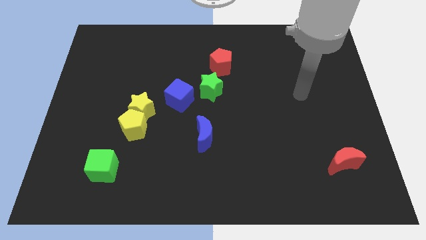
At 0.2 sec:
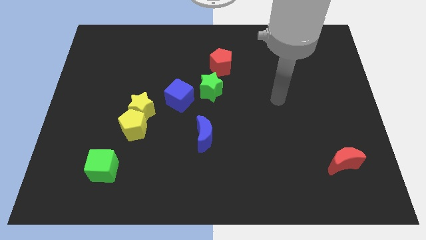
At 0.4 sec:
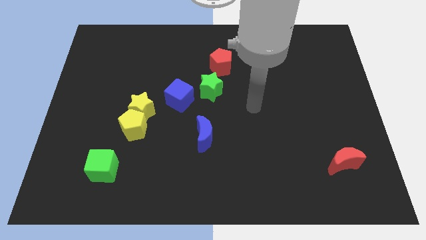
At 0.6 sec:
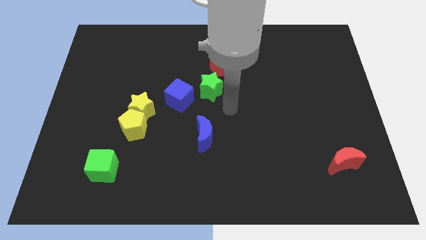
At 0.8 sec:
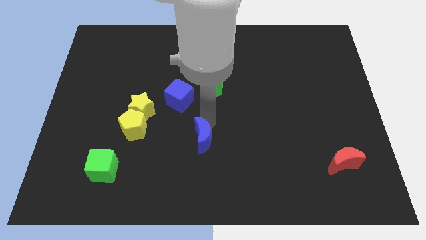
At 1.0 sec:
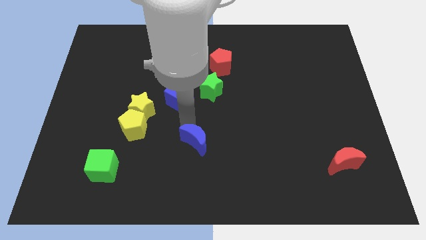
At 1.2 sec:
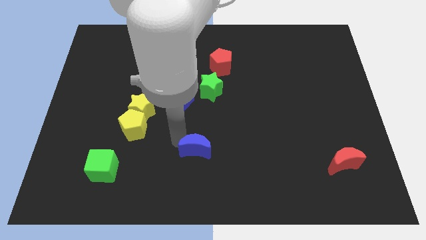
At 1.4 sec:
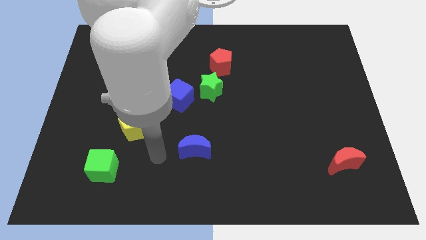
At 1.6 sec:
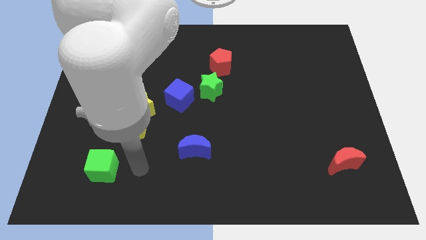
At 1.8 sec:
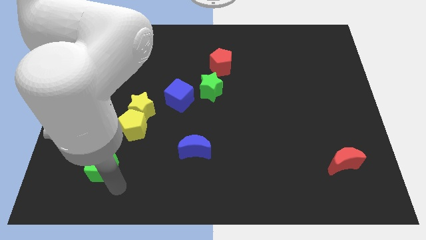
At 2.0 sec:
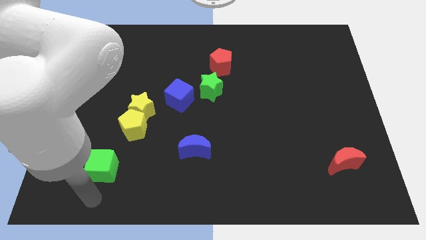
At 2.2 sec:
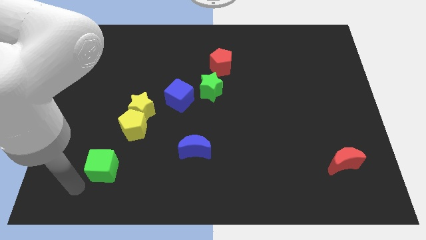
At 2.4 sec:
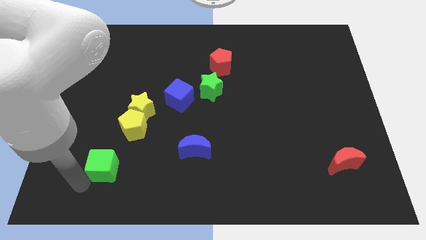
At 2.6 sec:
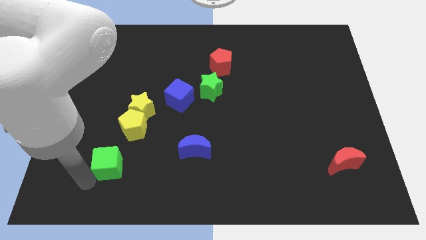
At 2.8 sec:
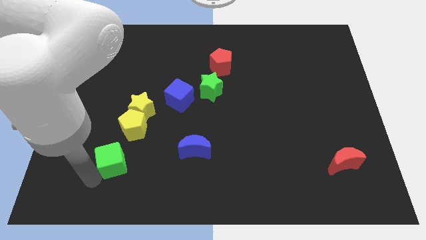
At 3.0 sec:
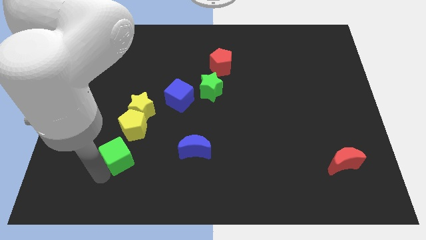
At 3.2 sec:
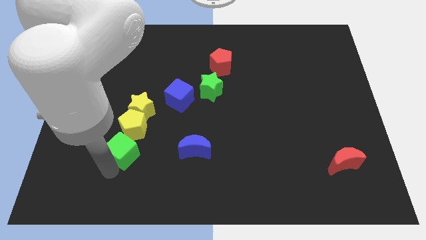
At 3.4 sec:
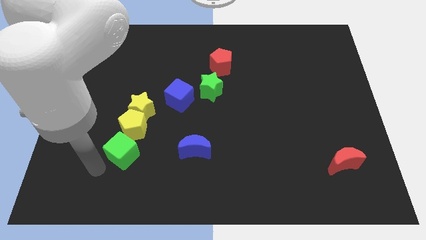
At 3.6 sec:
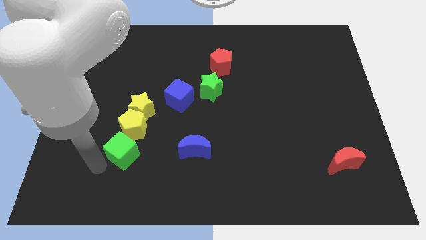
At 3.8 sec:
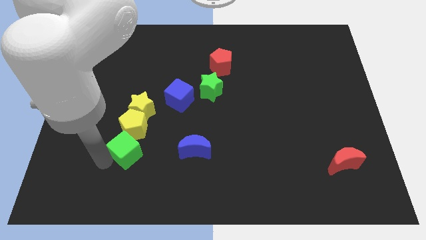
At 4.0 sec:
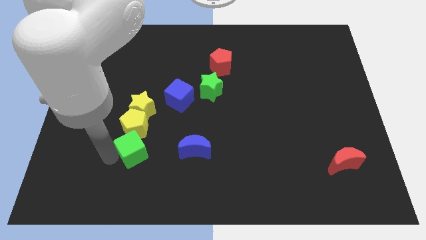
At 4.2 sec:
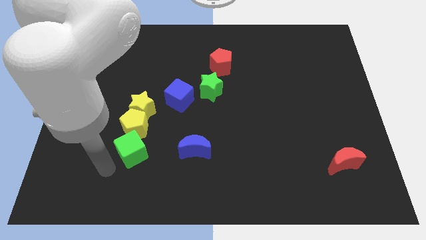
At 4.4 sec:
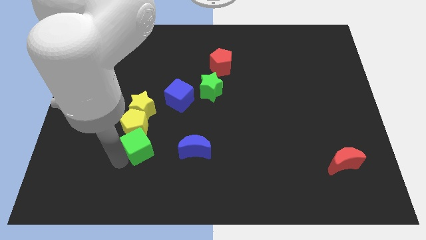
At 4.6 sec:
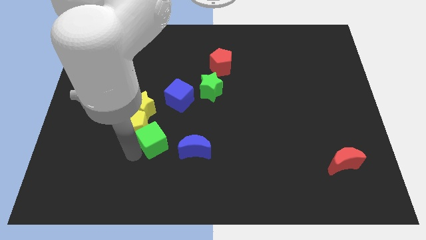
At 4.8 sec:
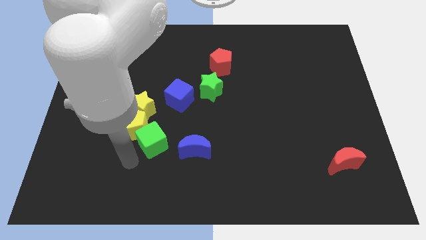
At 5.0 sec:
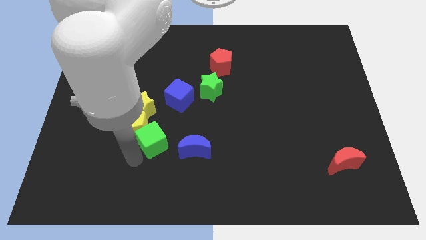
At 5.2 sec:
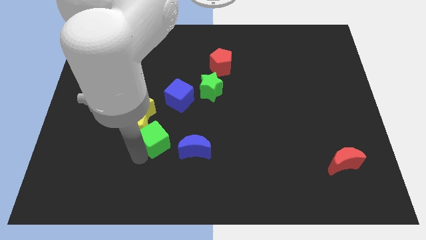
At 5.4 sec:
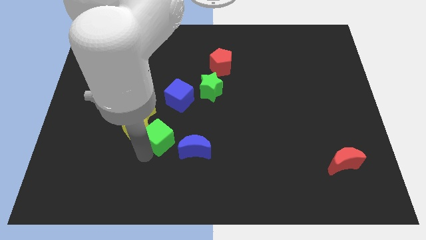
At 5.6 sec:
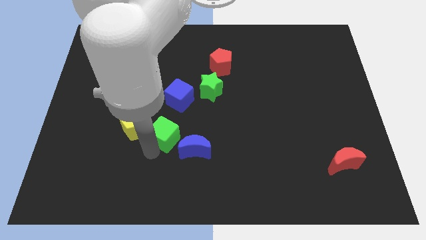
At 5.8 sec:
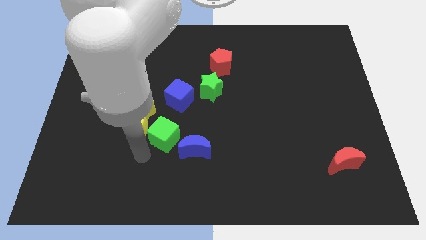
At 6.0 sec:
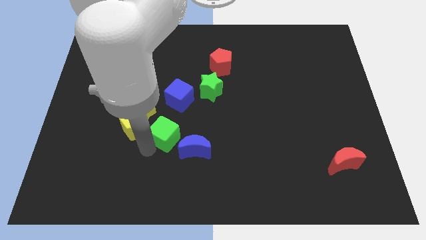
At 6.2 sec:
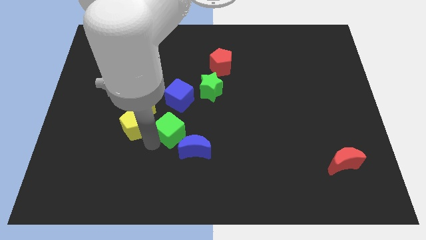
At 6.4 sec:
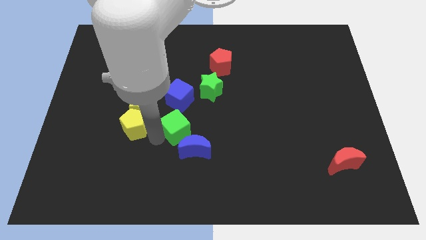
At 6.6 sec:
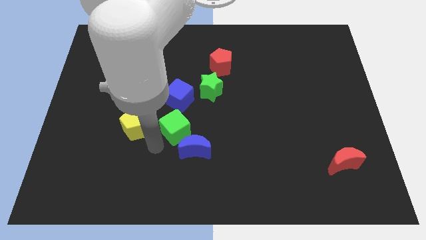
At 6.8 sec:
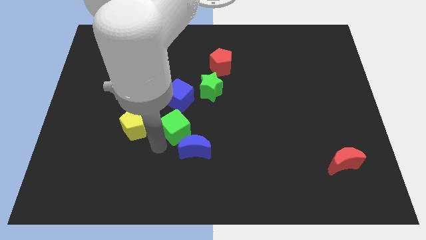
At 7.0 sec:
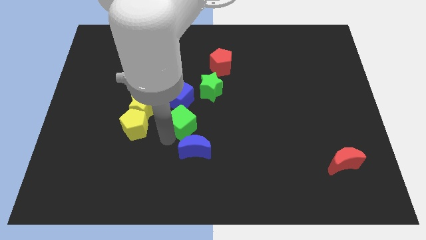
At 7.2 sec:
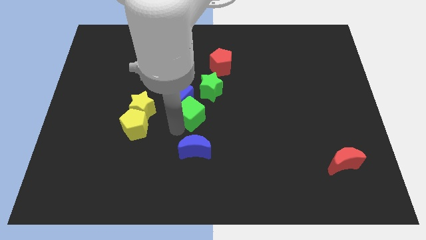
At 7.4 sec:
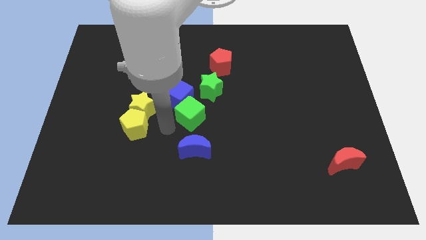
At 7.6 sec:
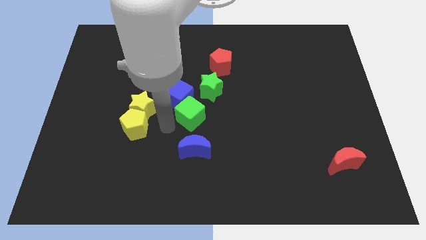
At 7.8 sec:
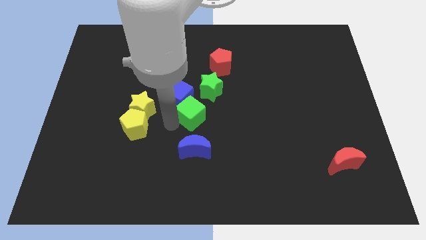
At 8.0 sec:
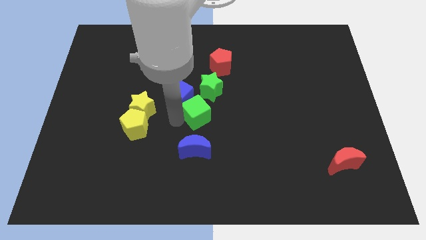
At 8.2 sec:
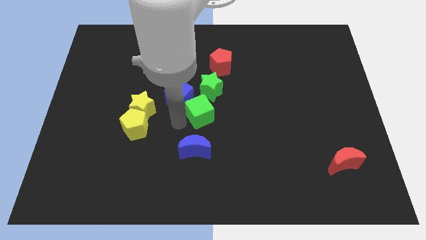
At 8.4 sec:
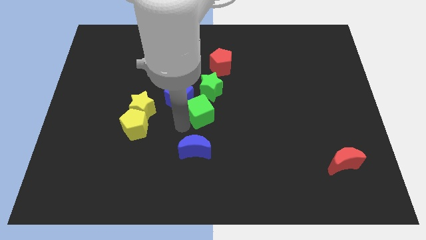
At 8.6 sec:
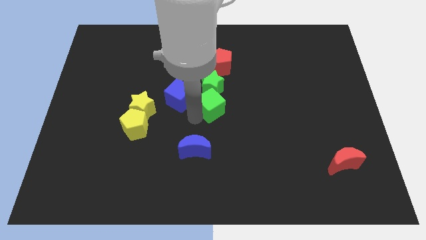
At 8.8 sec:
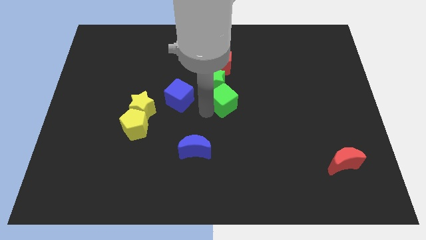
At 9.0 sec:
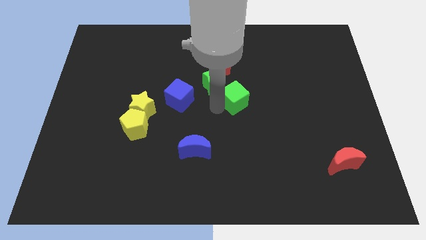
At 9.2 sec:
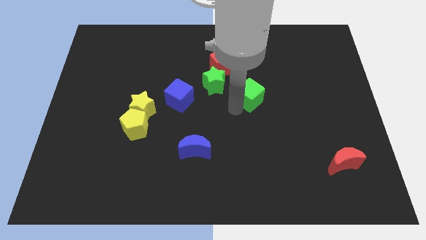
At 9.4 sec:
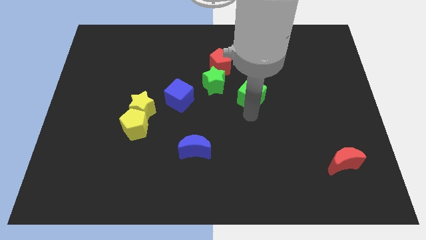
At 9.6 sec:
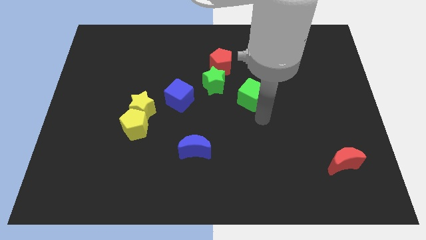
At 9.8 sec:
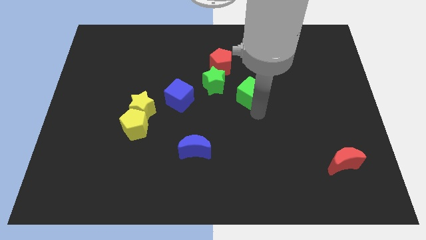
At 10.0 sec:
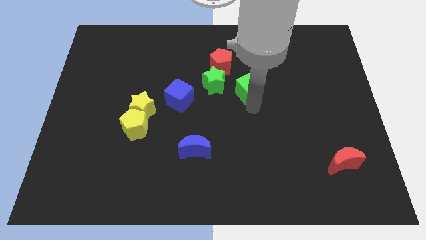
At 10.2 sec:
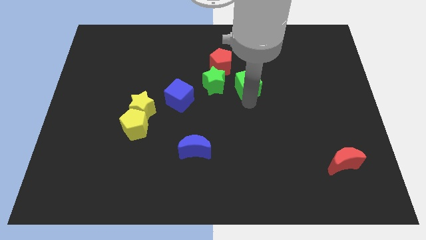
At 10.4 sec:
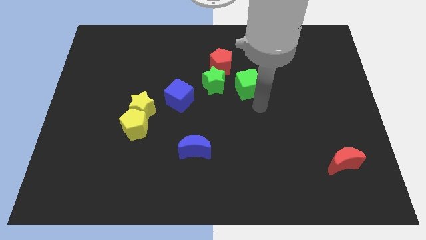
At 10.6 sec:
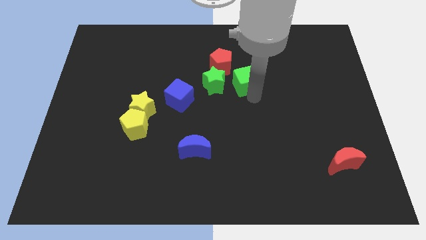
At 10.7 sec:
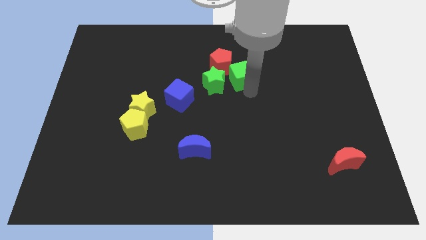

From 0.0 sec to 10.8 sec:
put the green cube diagonally up and to the right of the green star

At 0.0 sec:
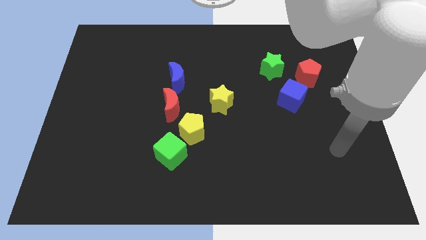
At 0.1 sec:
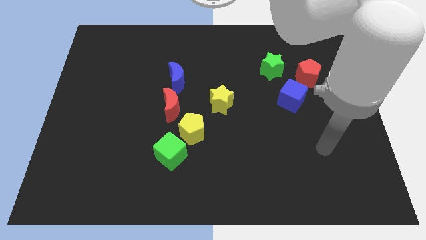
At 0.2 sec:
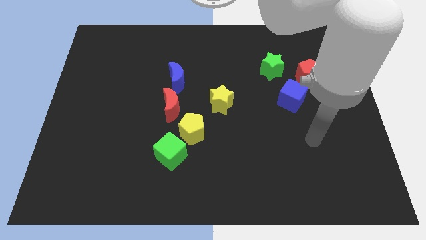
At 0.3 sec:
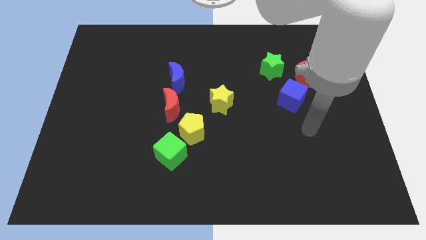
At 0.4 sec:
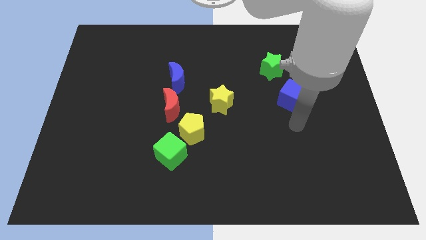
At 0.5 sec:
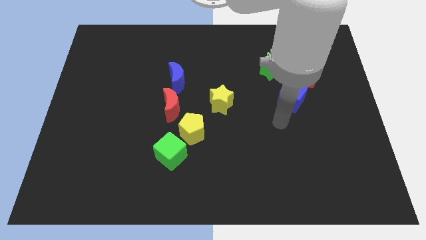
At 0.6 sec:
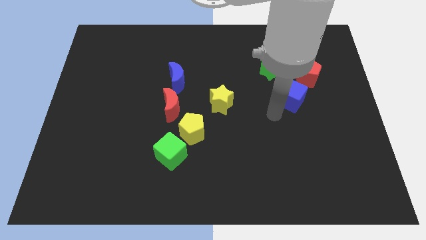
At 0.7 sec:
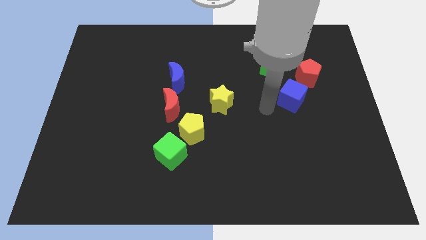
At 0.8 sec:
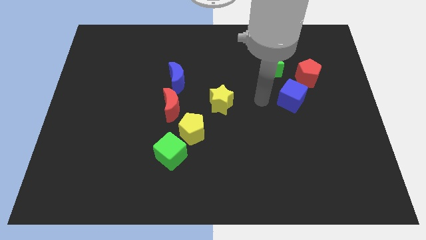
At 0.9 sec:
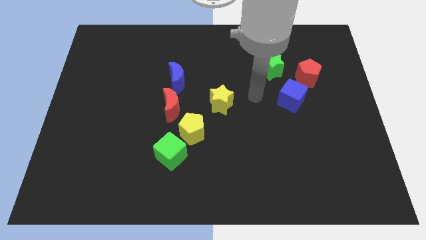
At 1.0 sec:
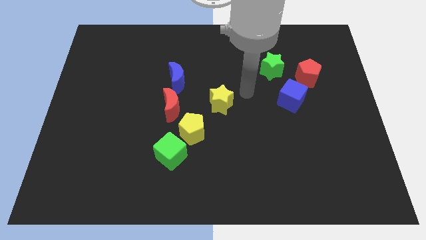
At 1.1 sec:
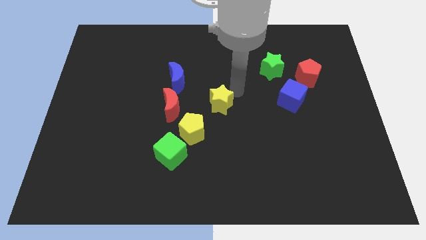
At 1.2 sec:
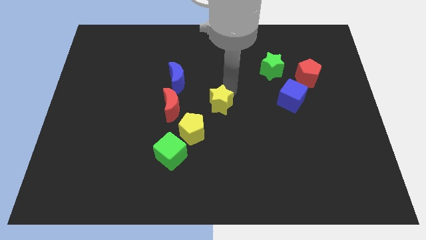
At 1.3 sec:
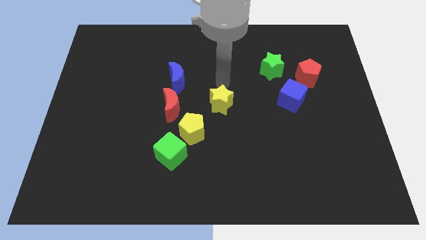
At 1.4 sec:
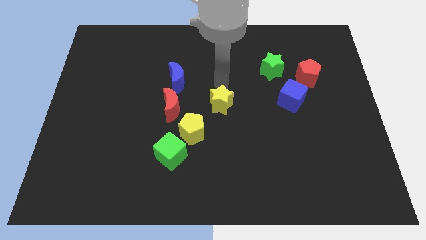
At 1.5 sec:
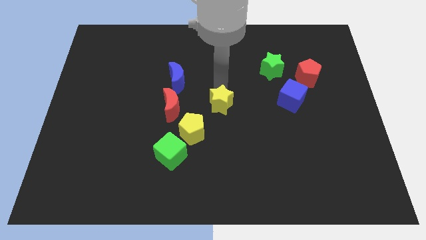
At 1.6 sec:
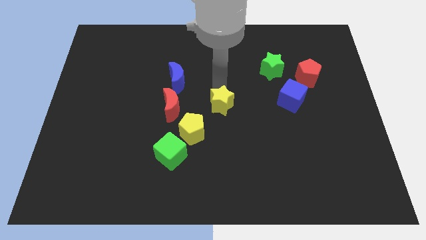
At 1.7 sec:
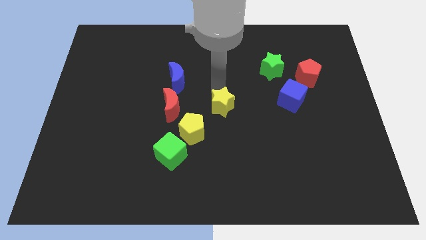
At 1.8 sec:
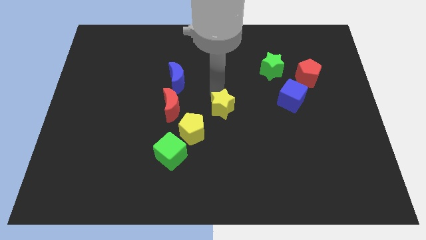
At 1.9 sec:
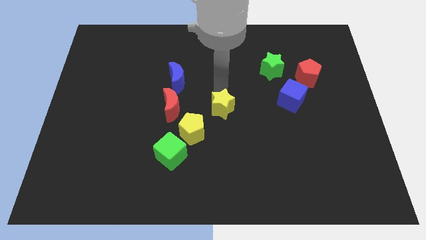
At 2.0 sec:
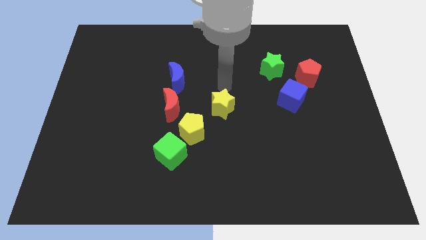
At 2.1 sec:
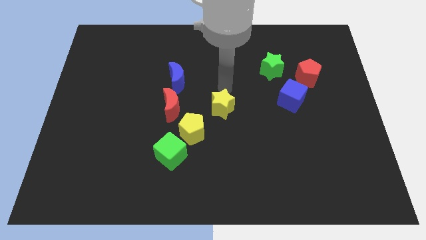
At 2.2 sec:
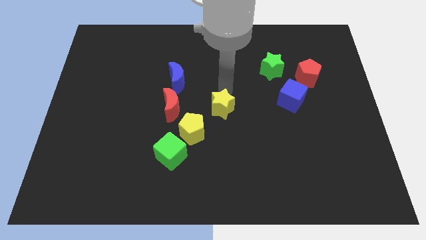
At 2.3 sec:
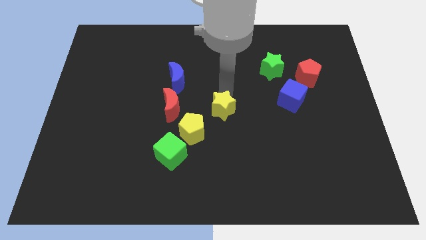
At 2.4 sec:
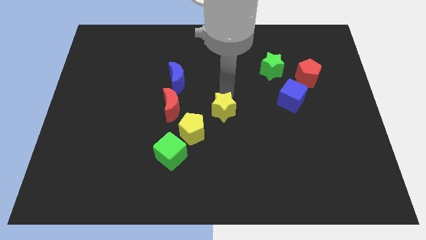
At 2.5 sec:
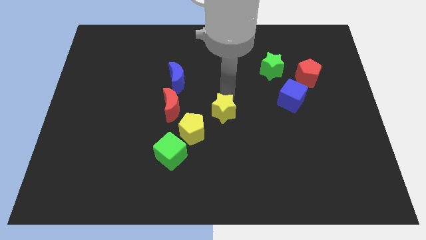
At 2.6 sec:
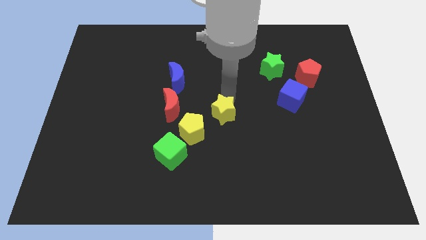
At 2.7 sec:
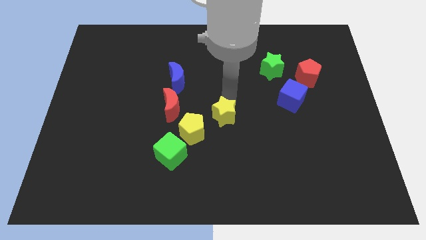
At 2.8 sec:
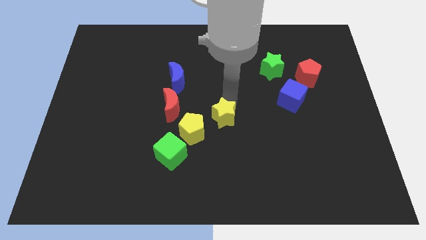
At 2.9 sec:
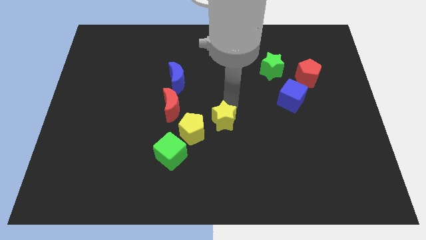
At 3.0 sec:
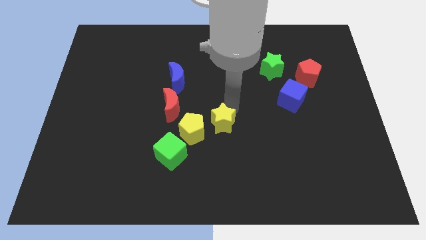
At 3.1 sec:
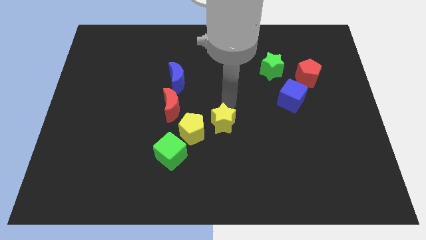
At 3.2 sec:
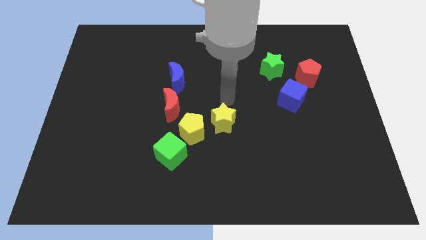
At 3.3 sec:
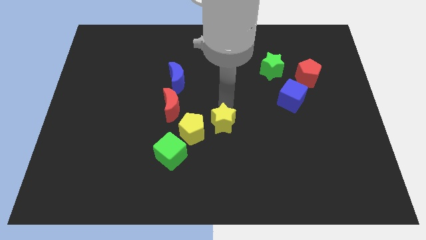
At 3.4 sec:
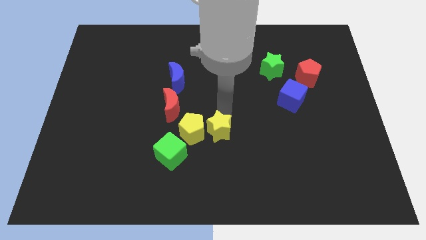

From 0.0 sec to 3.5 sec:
slide the yellow star to the bottom right of the yellow pentagon
